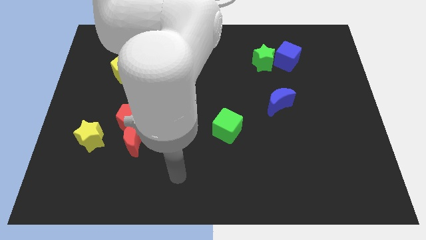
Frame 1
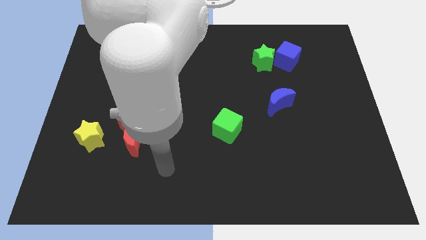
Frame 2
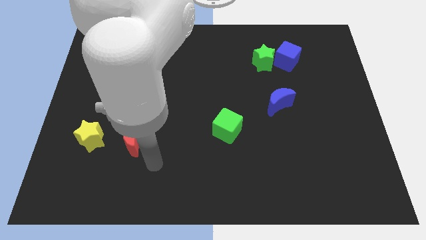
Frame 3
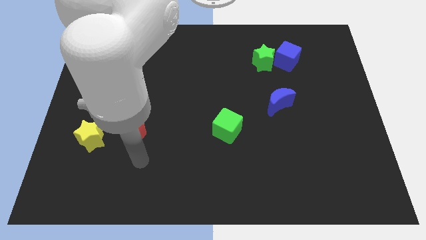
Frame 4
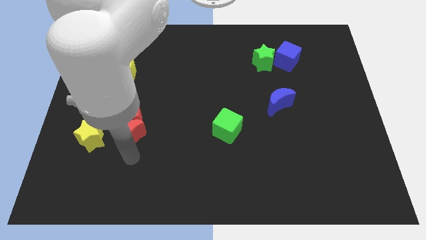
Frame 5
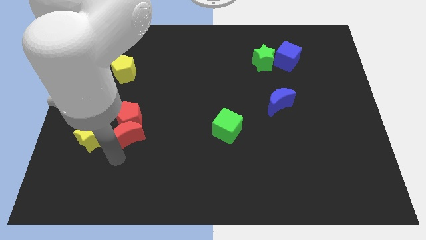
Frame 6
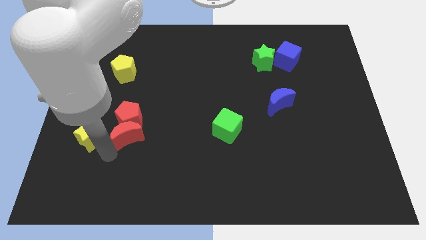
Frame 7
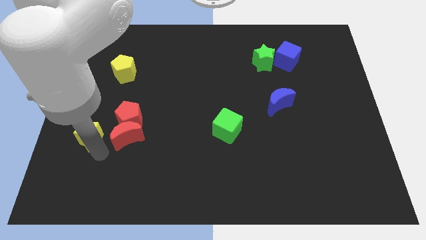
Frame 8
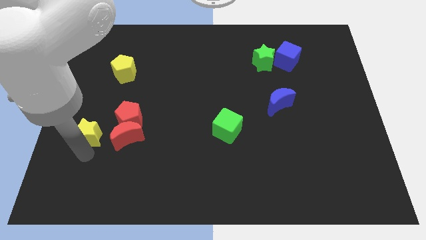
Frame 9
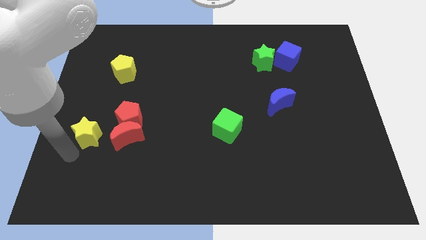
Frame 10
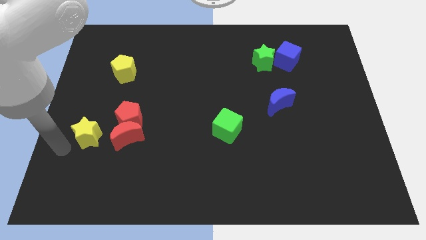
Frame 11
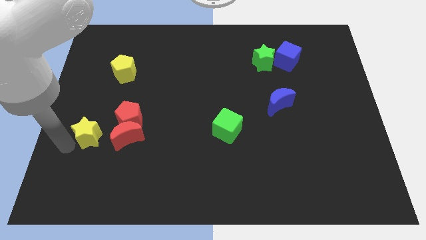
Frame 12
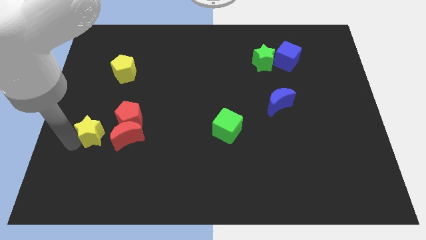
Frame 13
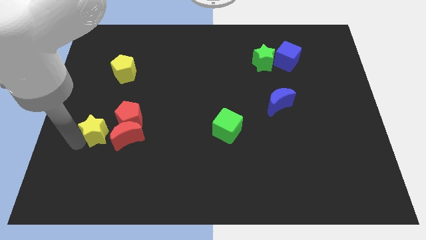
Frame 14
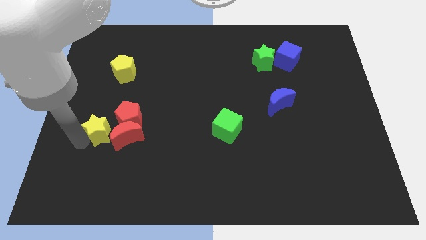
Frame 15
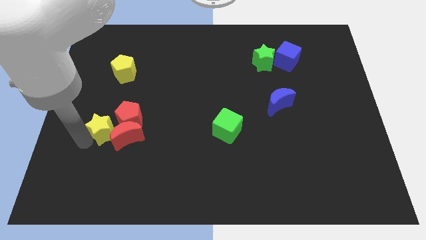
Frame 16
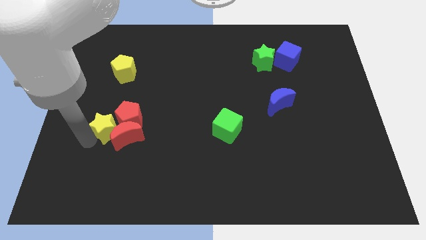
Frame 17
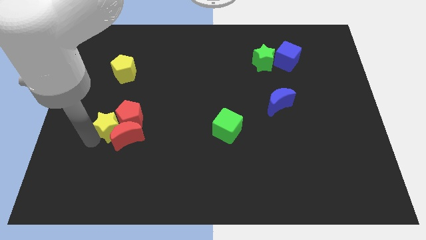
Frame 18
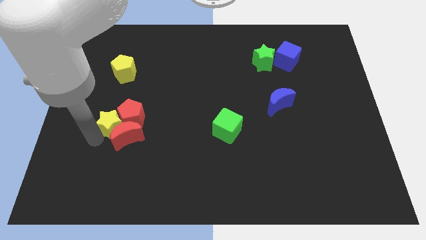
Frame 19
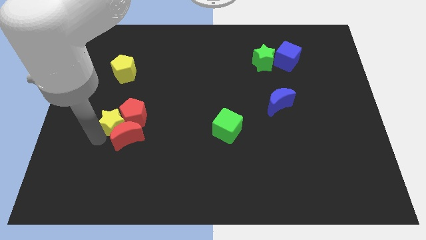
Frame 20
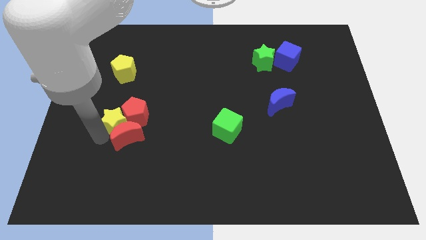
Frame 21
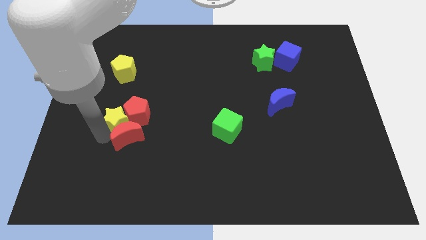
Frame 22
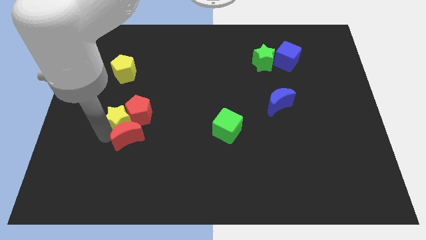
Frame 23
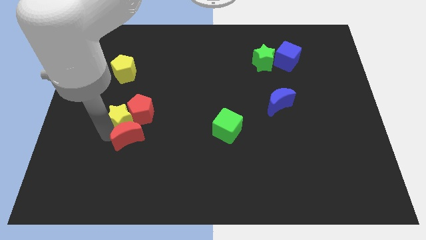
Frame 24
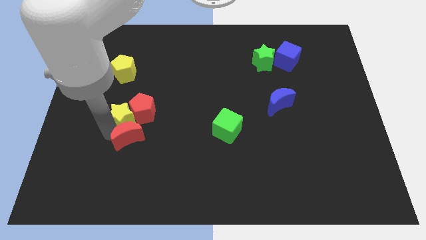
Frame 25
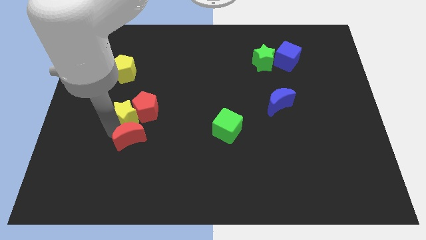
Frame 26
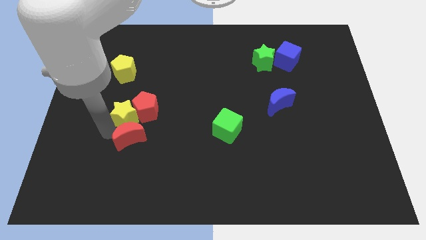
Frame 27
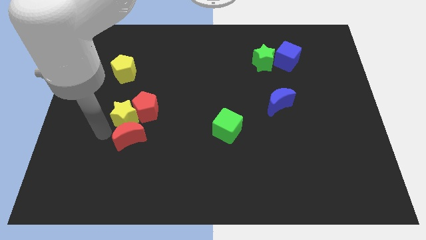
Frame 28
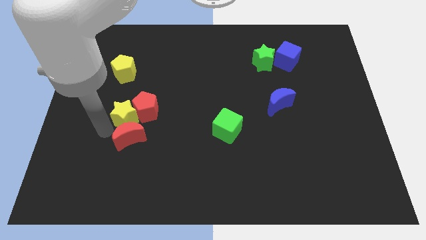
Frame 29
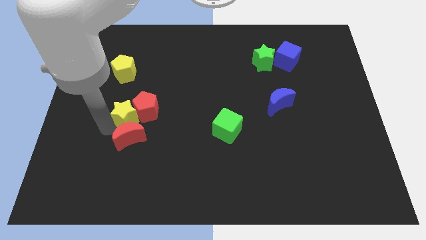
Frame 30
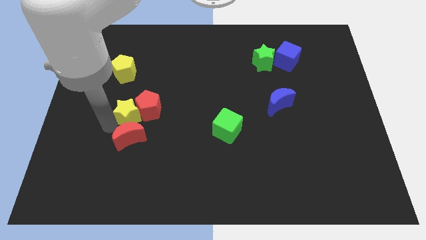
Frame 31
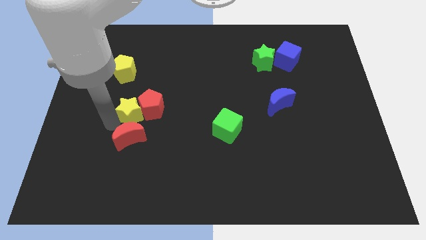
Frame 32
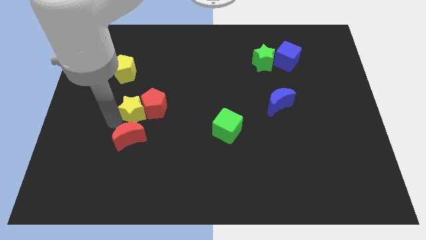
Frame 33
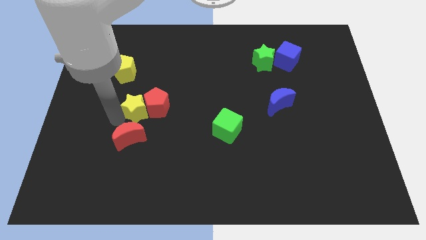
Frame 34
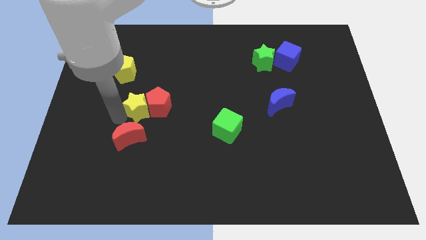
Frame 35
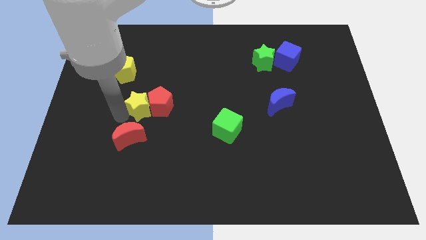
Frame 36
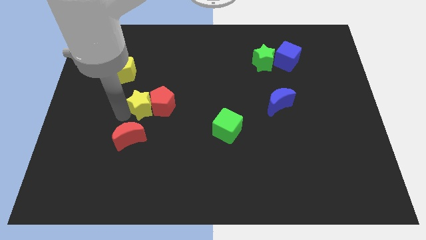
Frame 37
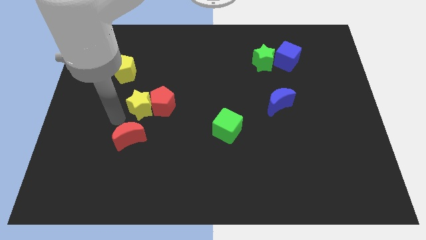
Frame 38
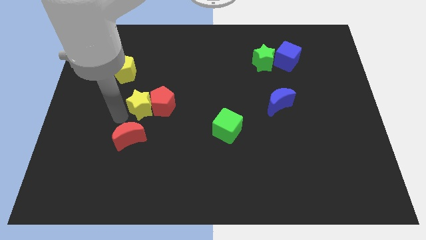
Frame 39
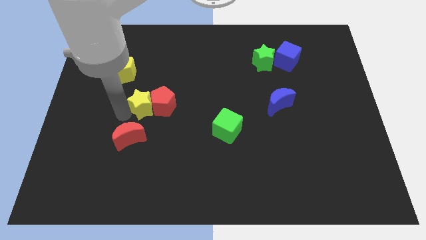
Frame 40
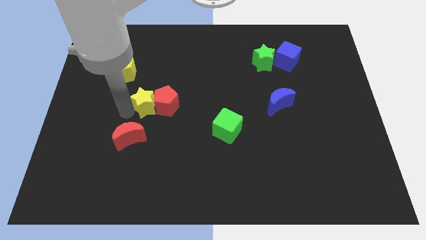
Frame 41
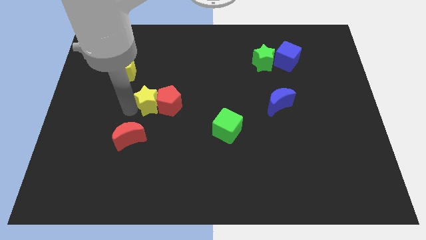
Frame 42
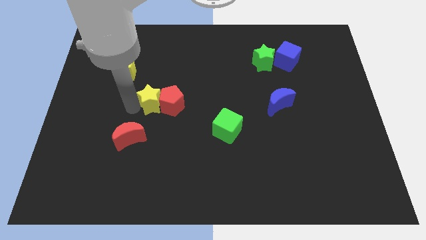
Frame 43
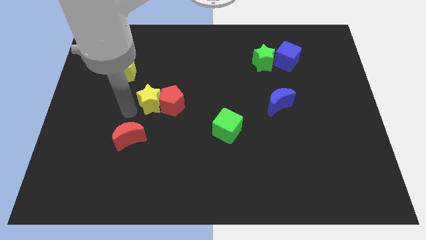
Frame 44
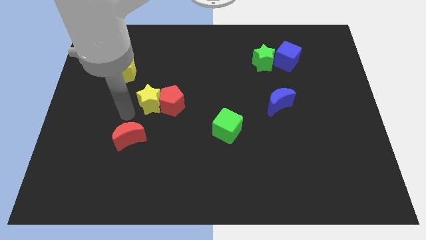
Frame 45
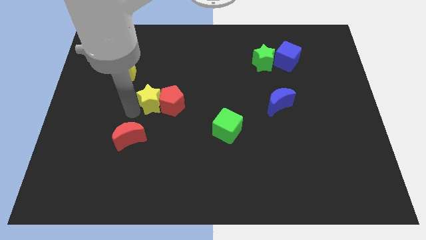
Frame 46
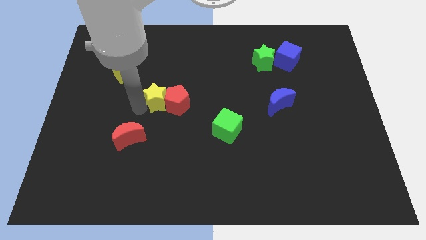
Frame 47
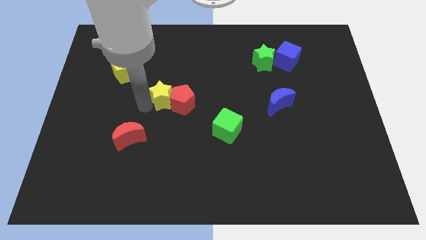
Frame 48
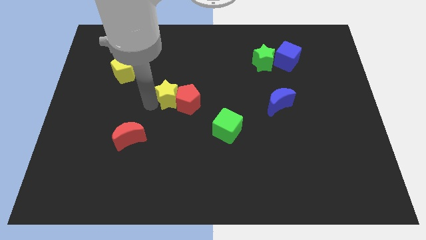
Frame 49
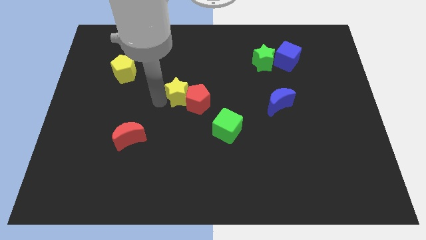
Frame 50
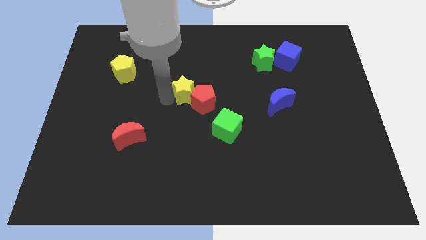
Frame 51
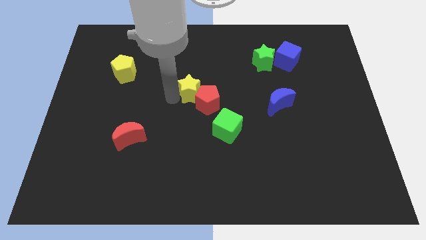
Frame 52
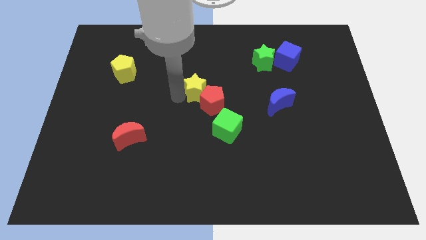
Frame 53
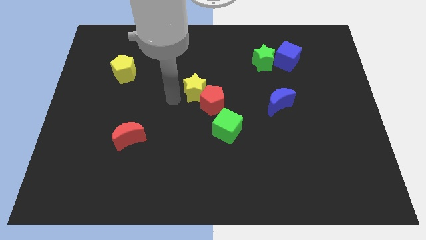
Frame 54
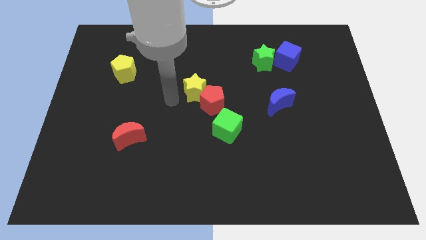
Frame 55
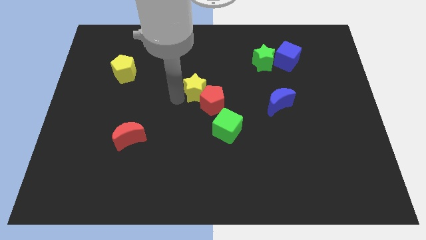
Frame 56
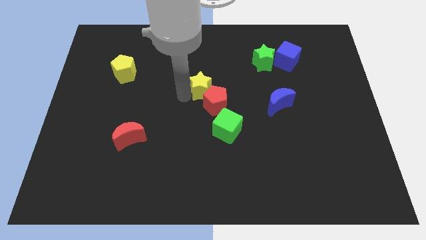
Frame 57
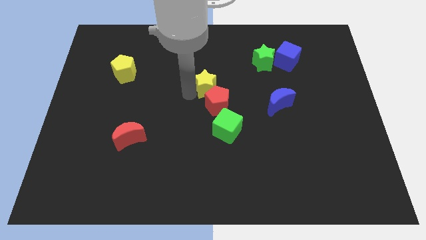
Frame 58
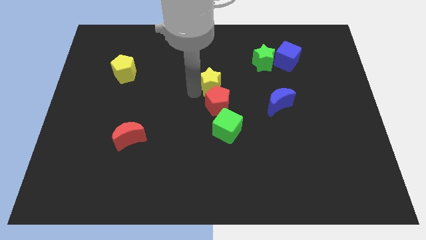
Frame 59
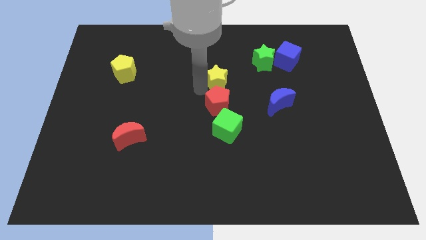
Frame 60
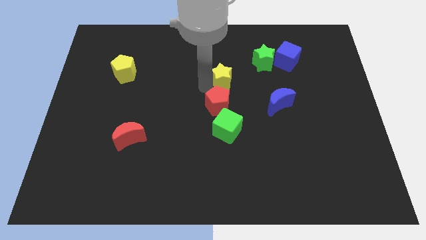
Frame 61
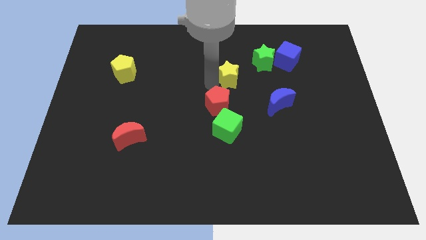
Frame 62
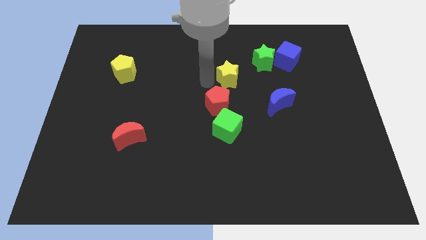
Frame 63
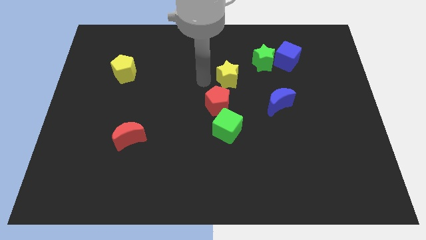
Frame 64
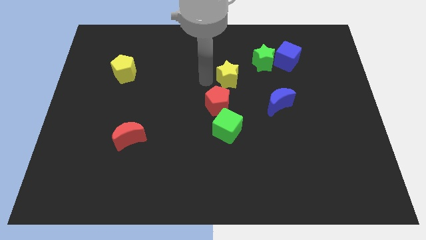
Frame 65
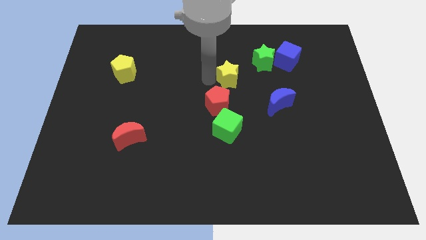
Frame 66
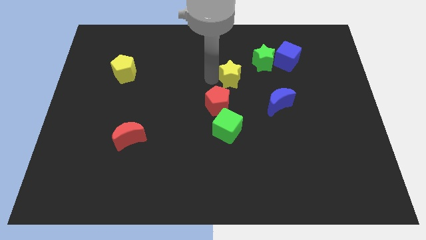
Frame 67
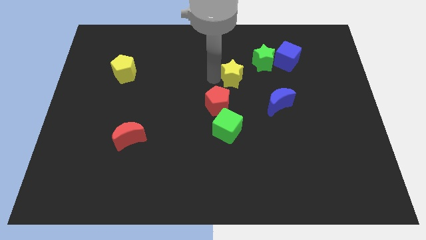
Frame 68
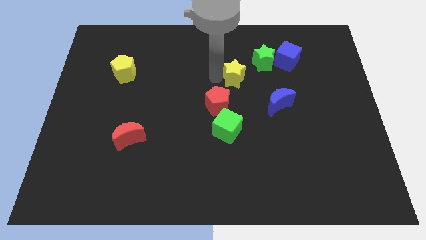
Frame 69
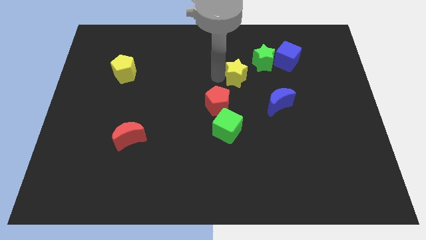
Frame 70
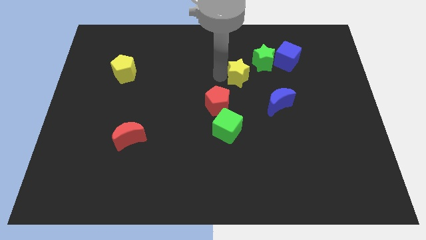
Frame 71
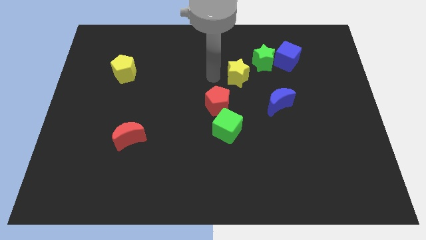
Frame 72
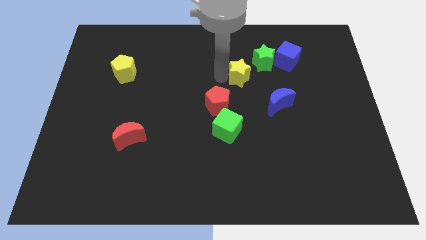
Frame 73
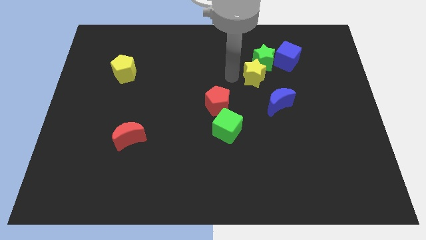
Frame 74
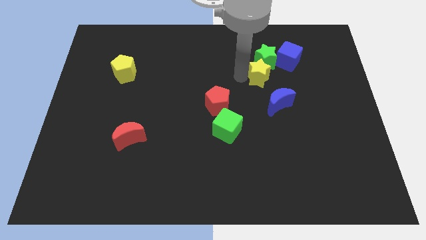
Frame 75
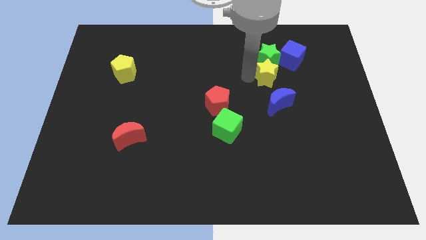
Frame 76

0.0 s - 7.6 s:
put the yellow star diagonally down and to the right of the green star
